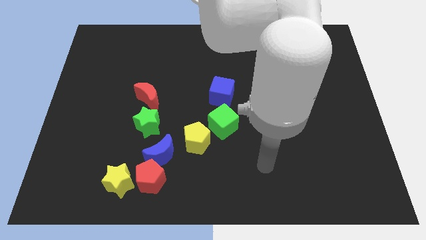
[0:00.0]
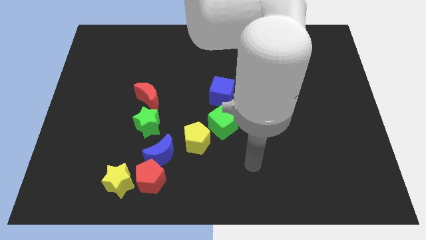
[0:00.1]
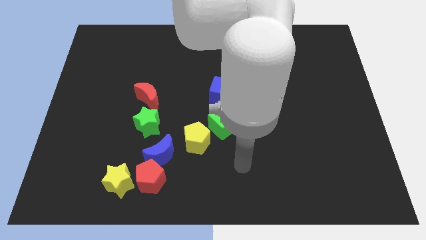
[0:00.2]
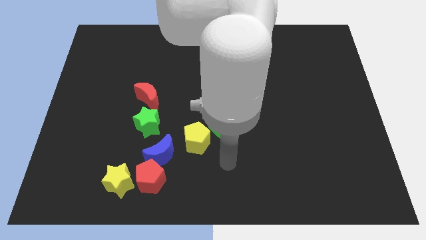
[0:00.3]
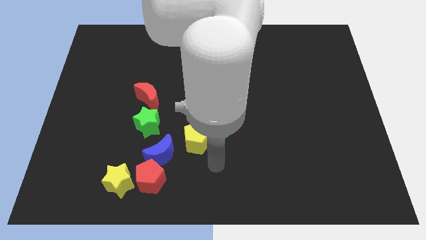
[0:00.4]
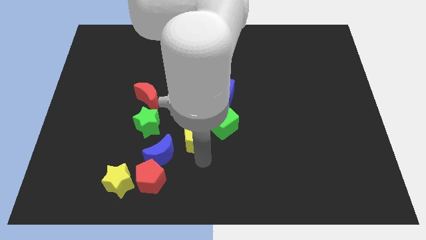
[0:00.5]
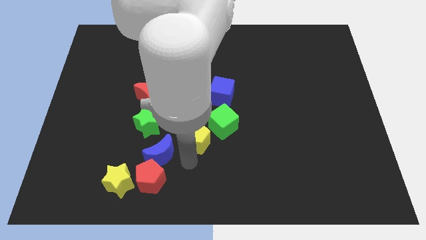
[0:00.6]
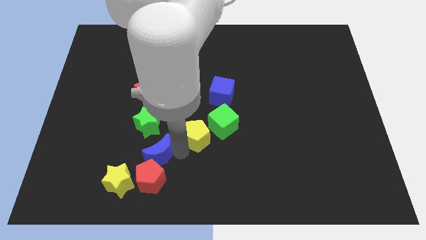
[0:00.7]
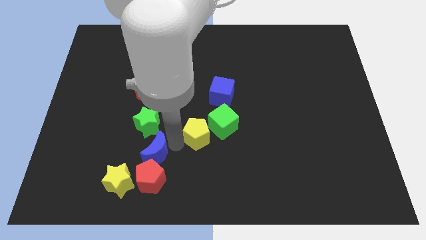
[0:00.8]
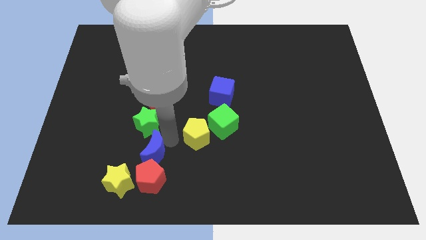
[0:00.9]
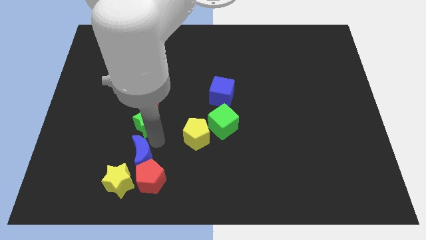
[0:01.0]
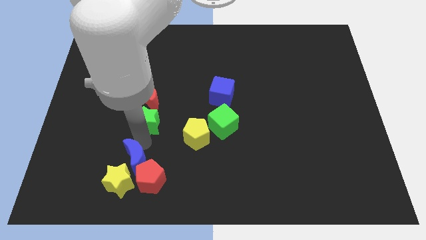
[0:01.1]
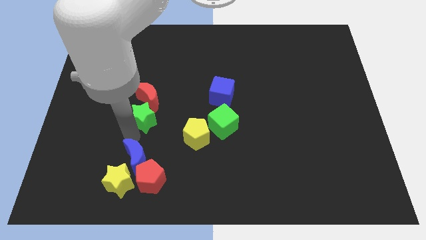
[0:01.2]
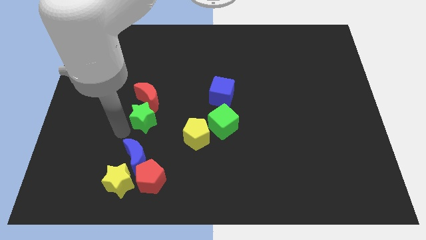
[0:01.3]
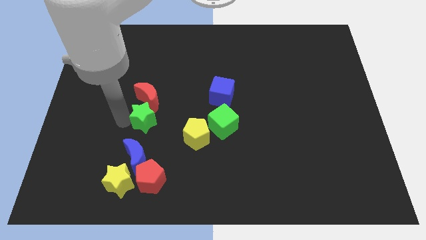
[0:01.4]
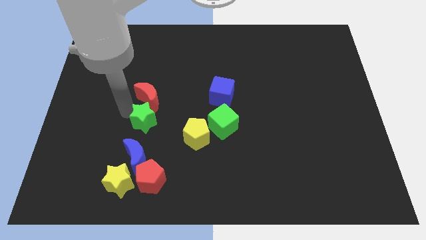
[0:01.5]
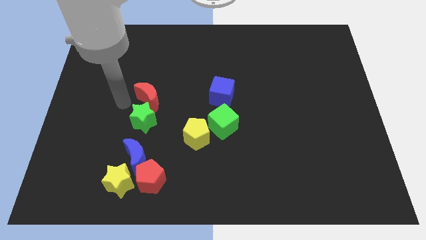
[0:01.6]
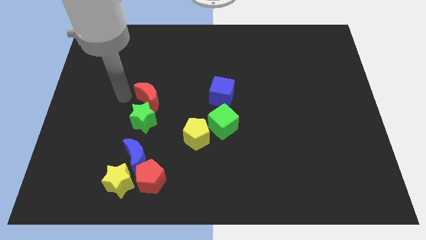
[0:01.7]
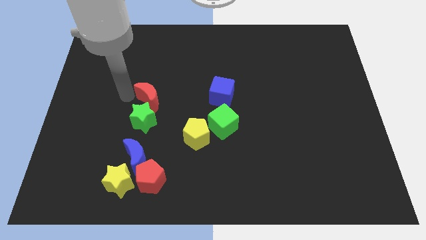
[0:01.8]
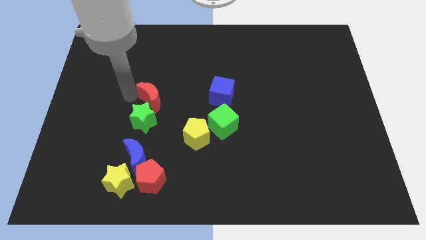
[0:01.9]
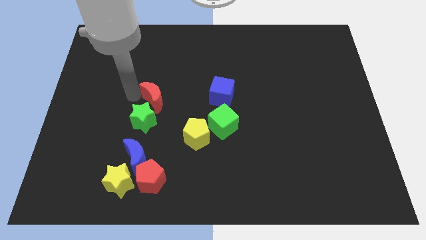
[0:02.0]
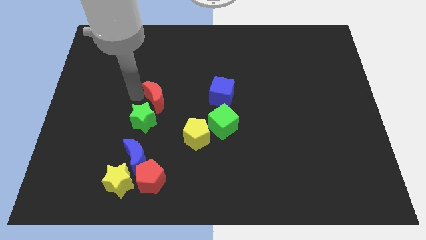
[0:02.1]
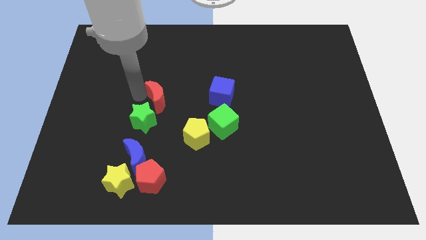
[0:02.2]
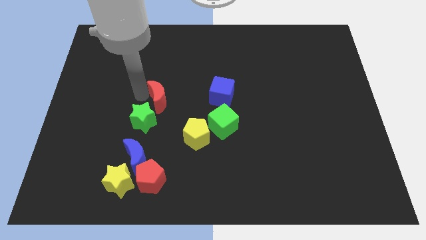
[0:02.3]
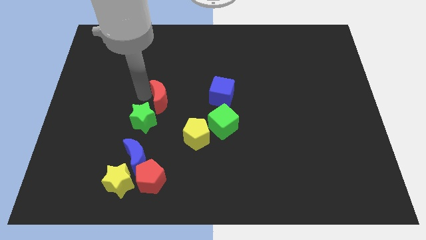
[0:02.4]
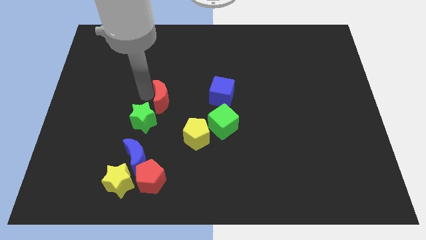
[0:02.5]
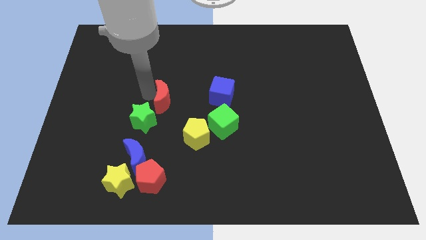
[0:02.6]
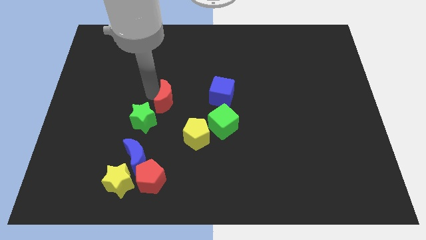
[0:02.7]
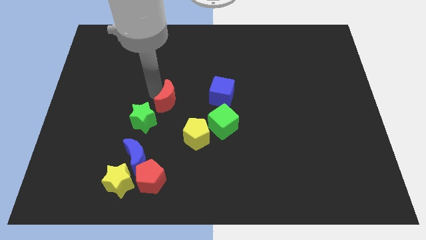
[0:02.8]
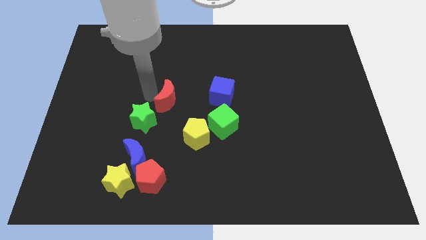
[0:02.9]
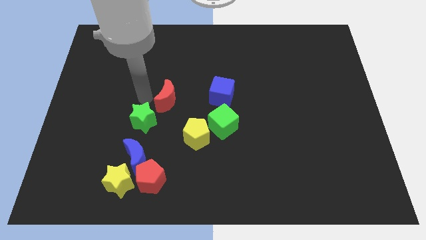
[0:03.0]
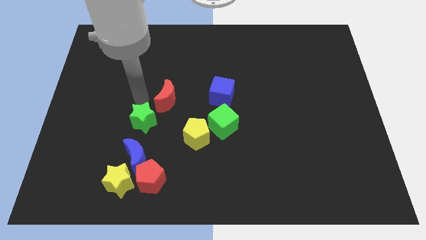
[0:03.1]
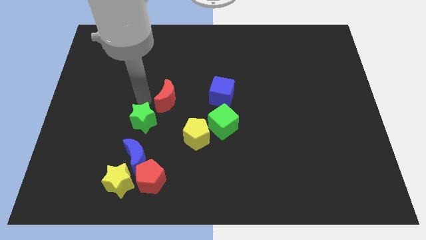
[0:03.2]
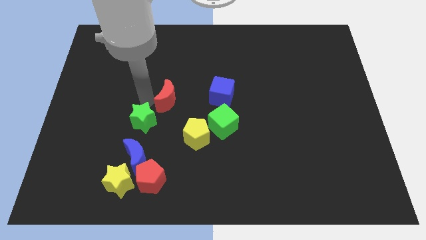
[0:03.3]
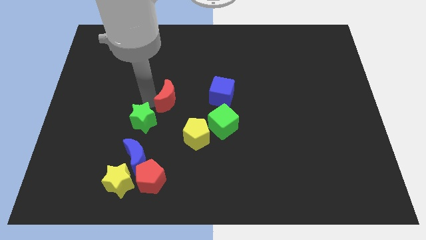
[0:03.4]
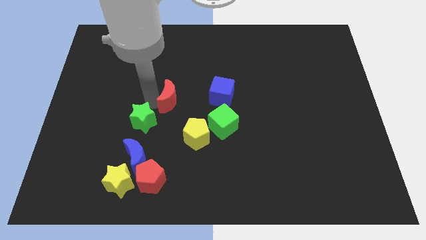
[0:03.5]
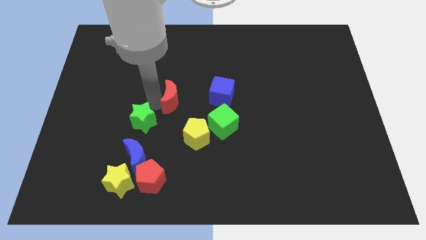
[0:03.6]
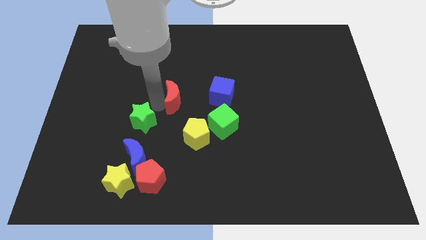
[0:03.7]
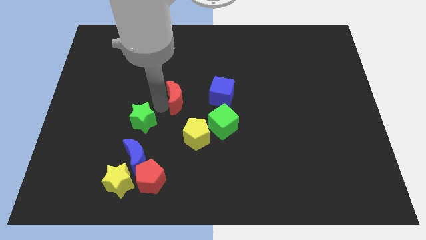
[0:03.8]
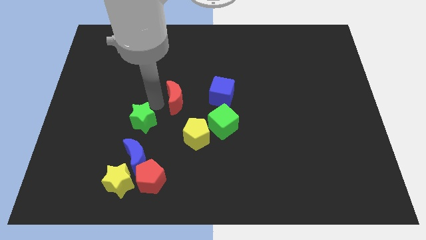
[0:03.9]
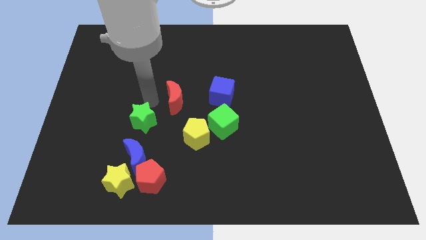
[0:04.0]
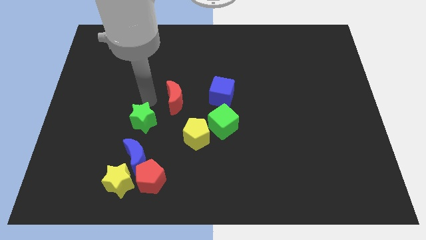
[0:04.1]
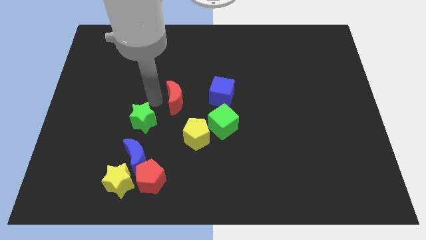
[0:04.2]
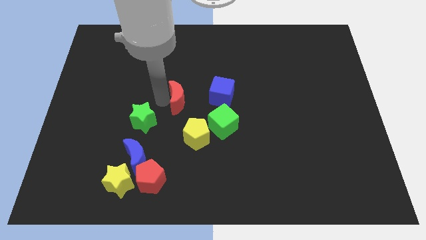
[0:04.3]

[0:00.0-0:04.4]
move the red moon to the top side of the yellow pentagon

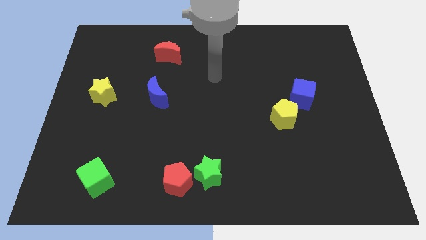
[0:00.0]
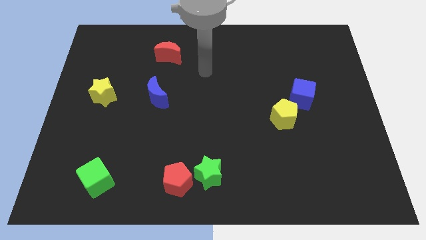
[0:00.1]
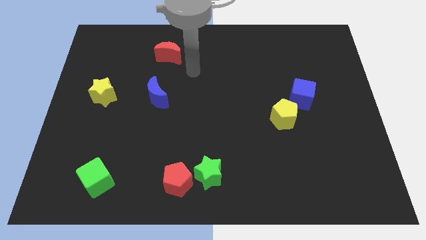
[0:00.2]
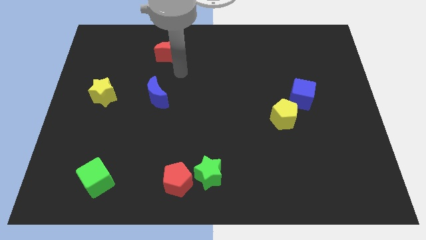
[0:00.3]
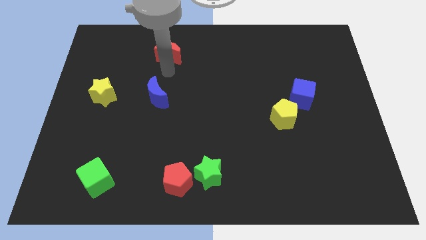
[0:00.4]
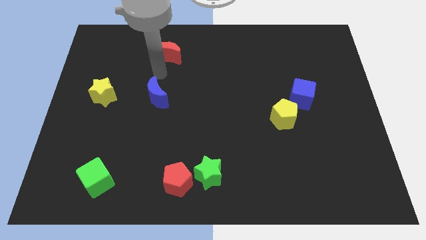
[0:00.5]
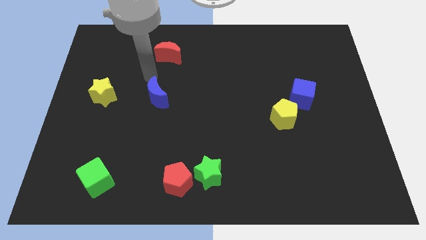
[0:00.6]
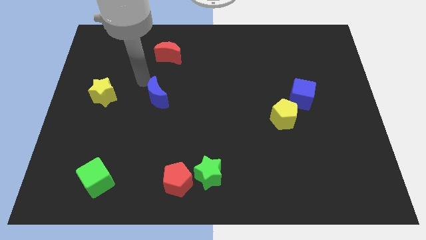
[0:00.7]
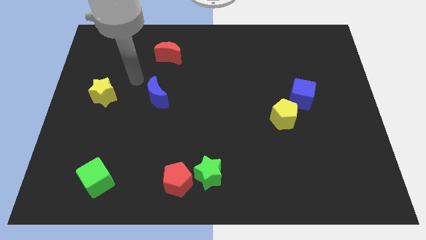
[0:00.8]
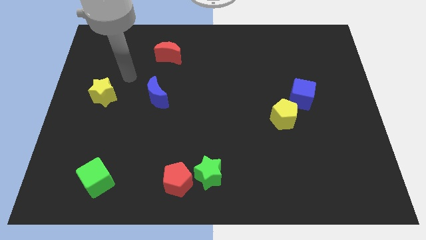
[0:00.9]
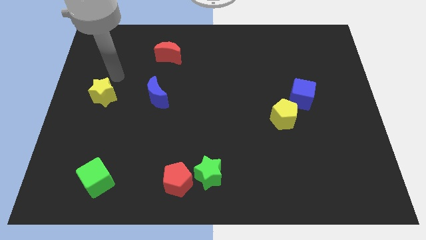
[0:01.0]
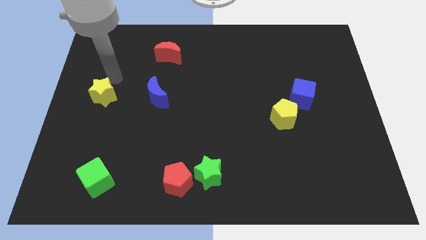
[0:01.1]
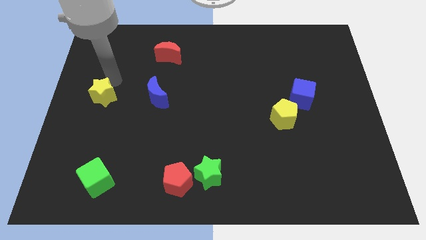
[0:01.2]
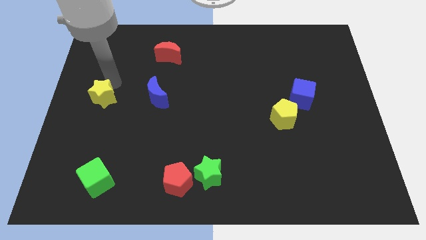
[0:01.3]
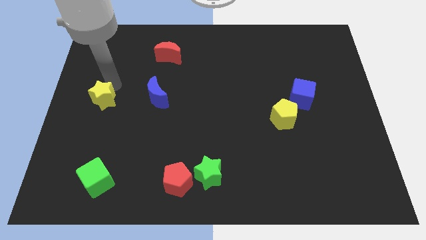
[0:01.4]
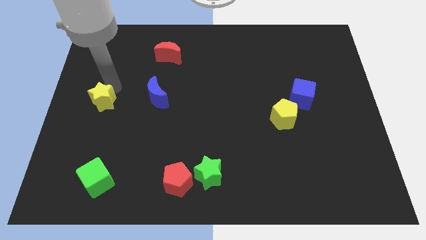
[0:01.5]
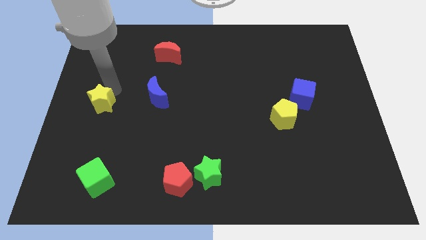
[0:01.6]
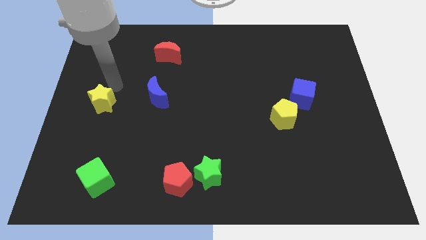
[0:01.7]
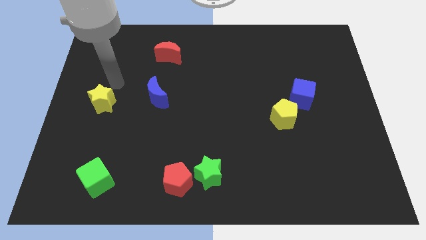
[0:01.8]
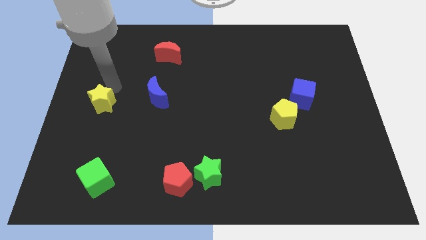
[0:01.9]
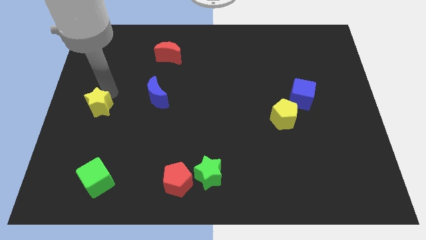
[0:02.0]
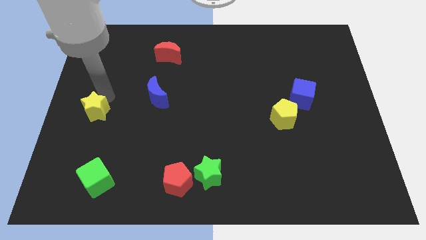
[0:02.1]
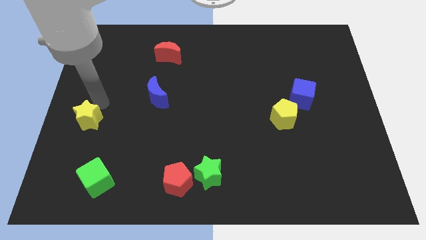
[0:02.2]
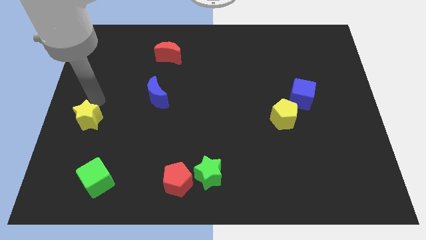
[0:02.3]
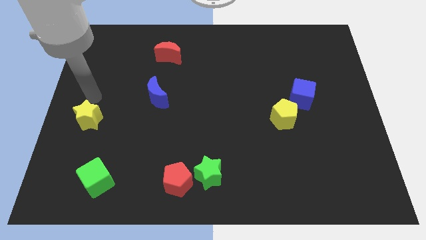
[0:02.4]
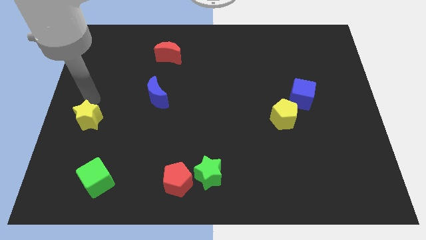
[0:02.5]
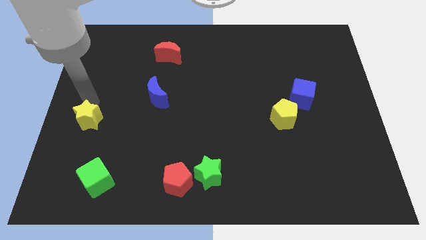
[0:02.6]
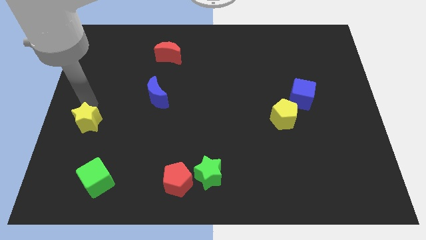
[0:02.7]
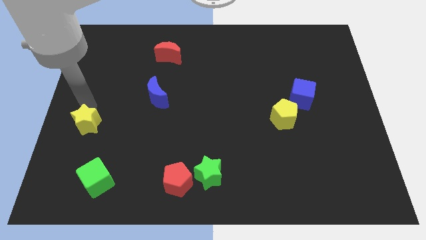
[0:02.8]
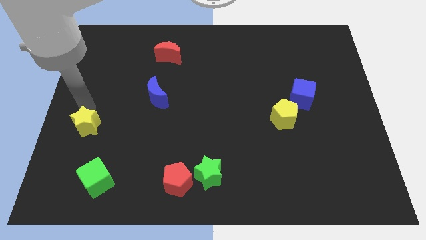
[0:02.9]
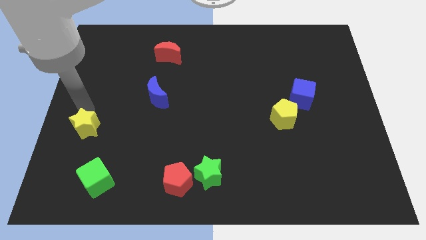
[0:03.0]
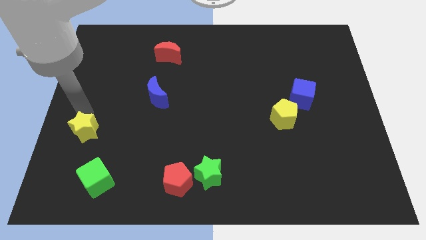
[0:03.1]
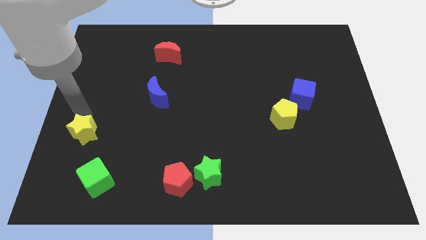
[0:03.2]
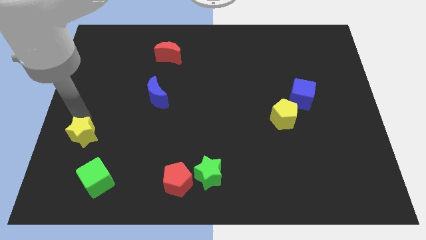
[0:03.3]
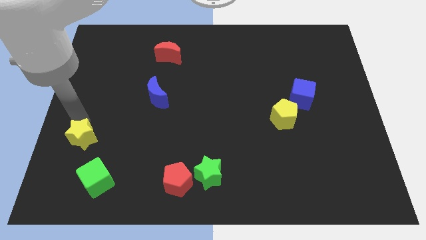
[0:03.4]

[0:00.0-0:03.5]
push the yellow star to the top left of the green cube
